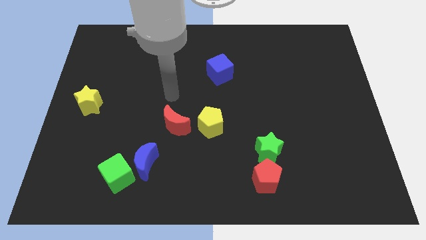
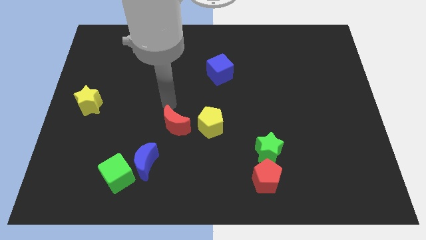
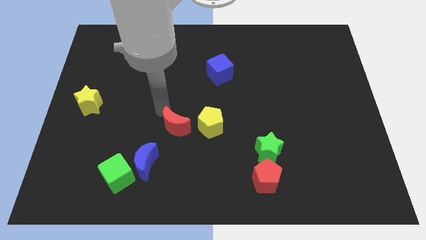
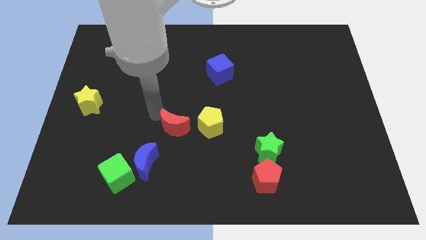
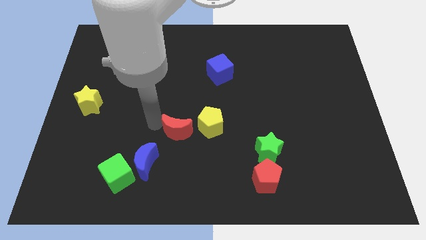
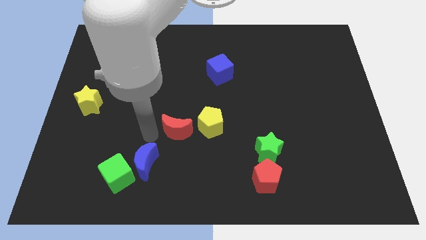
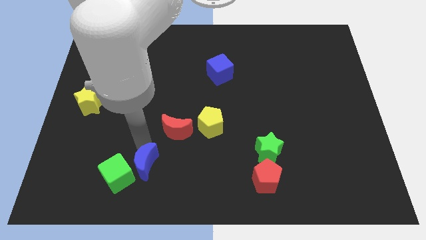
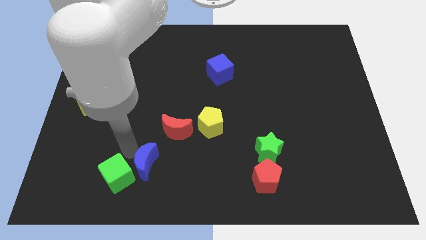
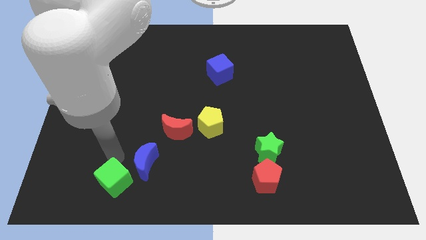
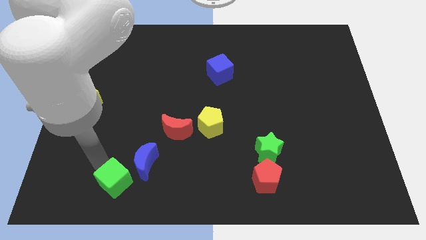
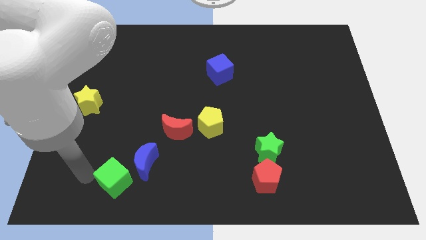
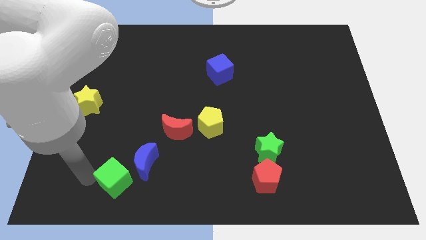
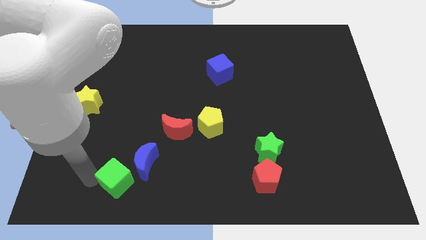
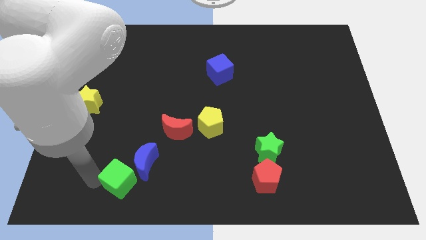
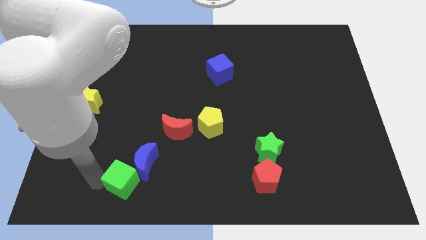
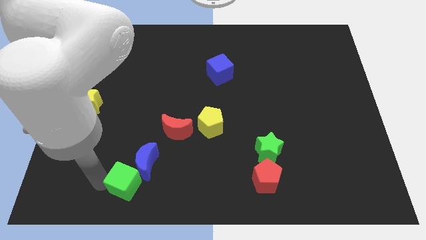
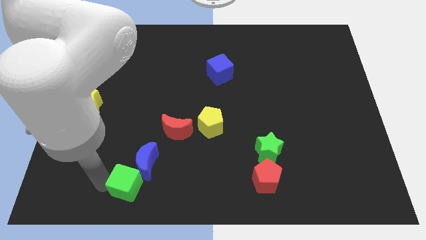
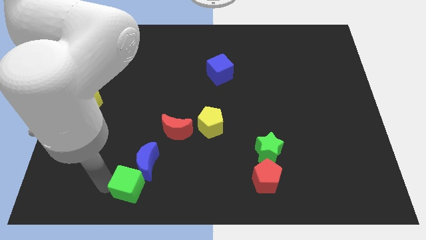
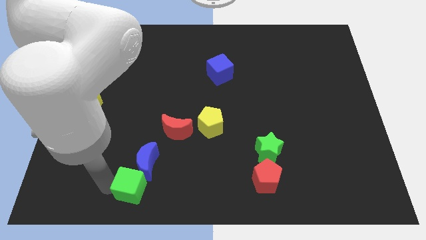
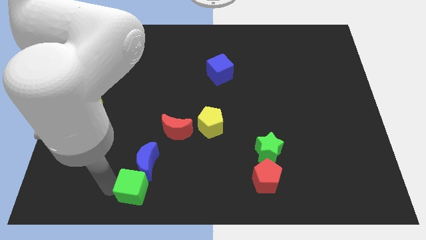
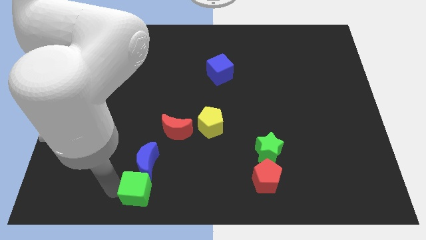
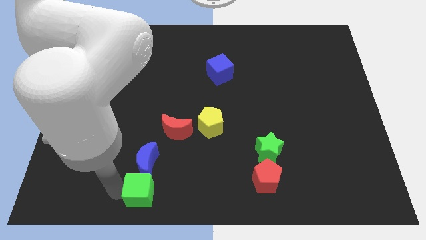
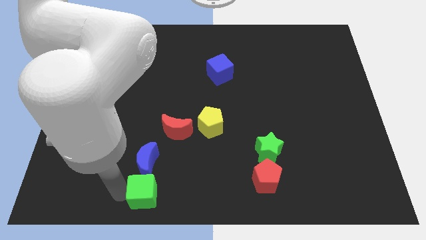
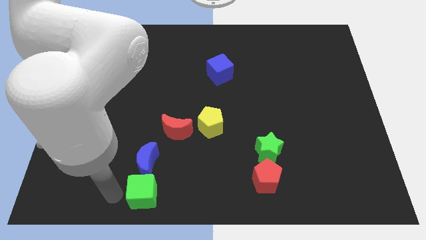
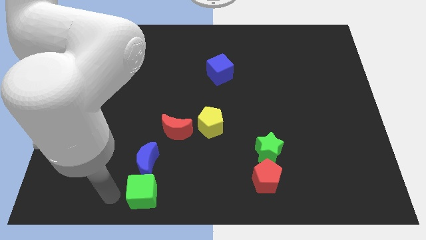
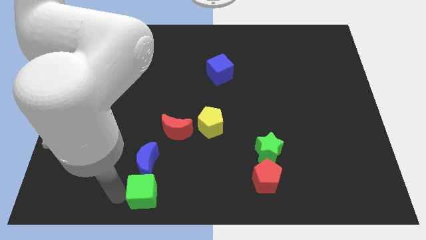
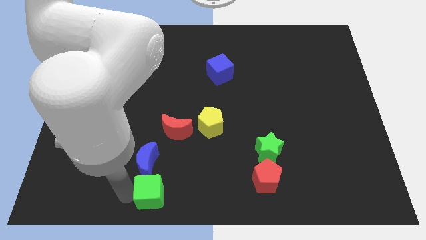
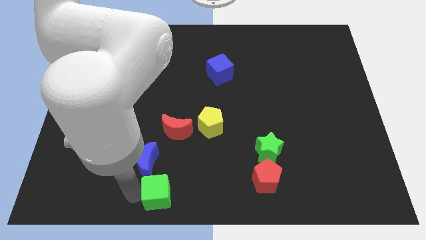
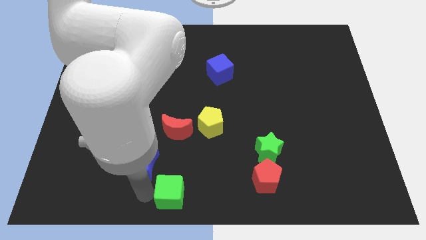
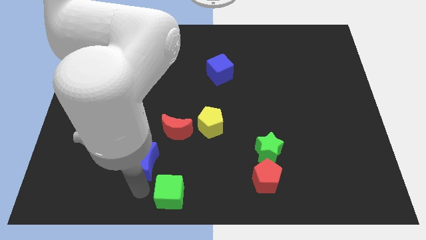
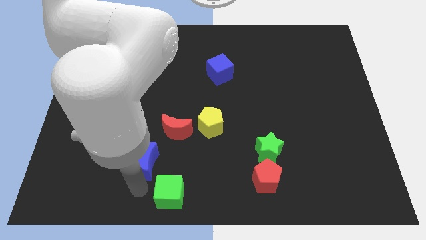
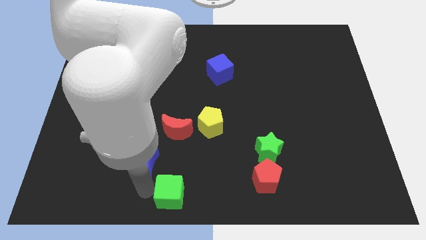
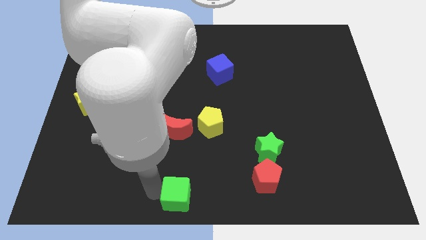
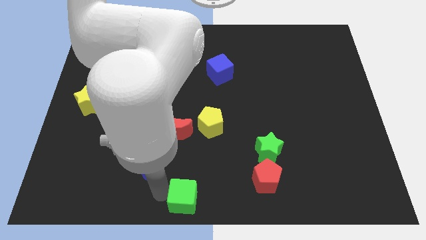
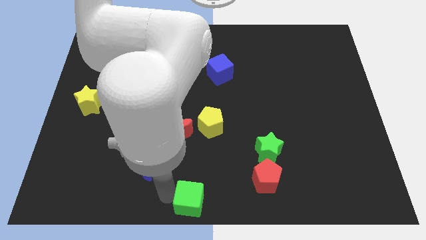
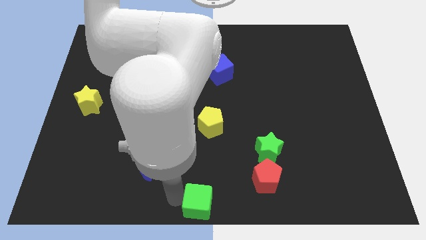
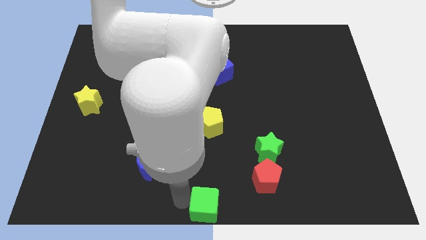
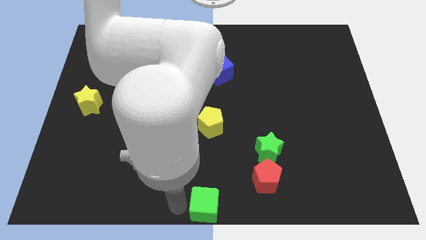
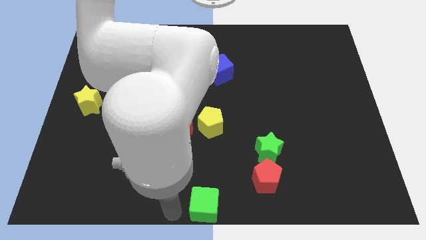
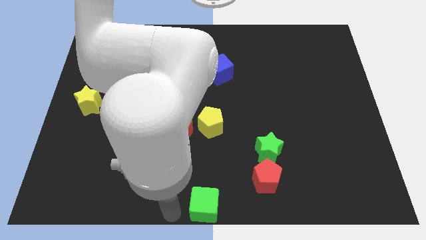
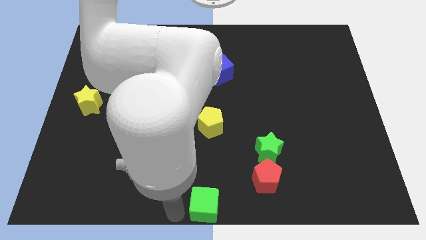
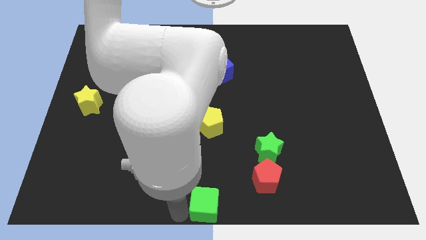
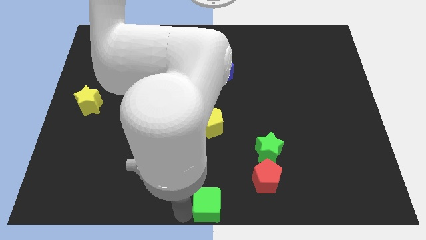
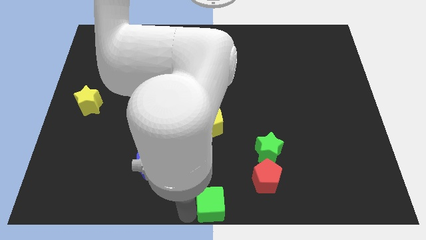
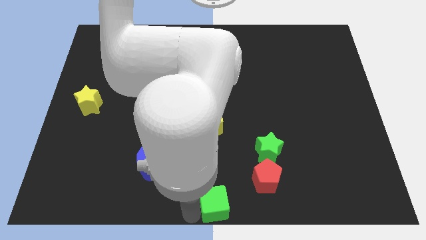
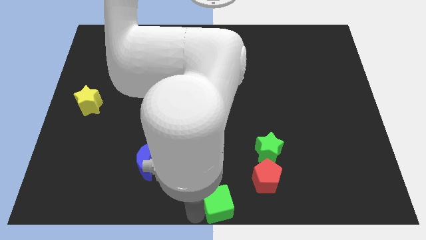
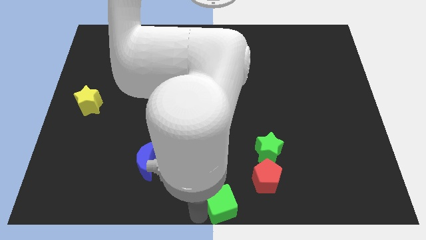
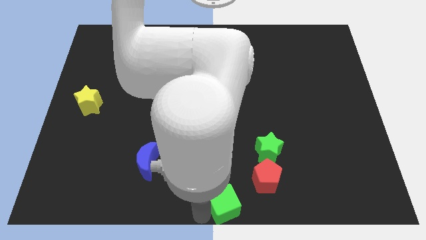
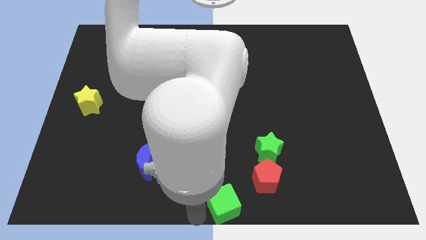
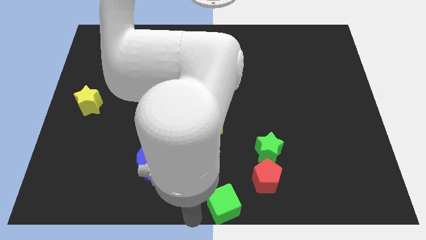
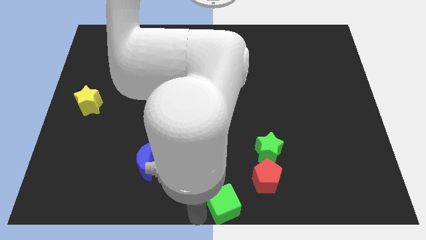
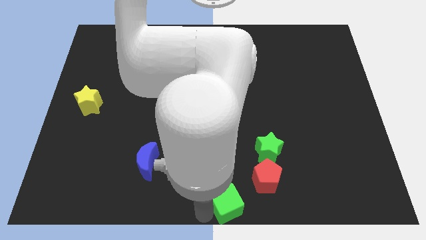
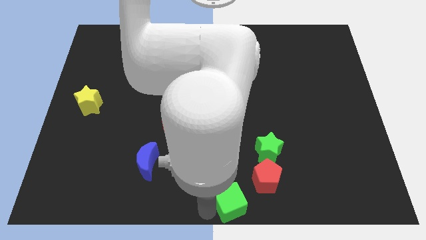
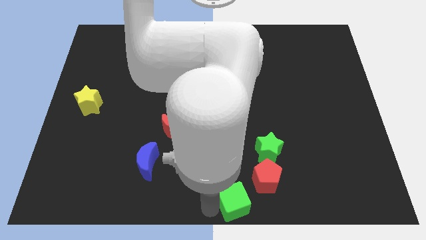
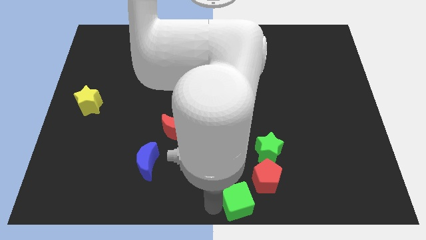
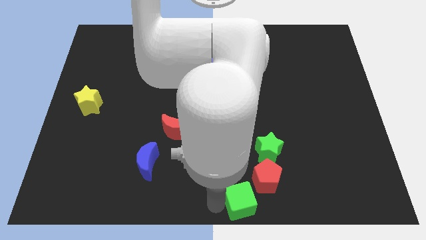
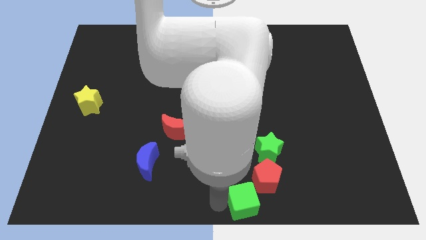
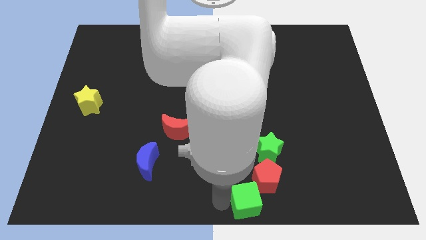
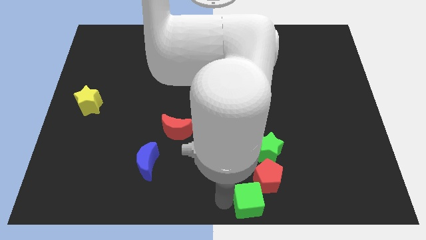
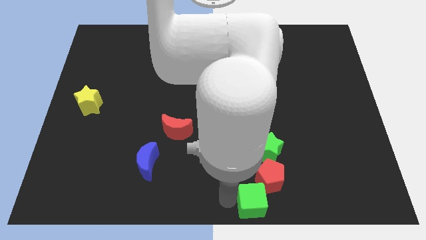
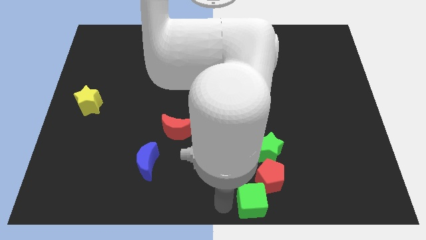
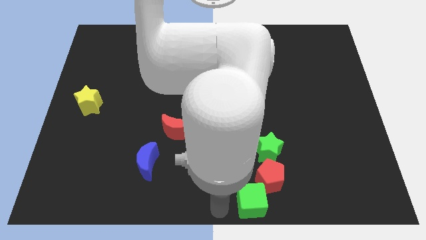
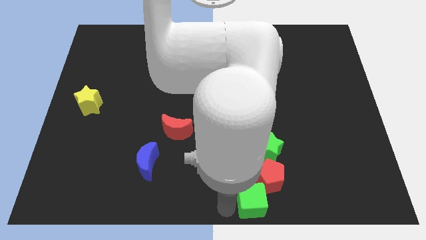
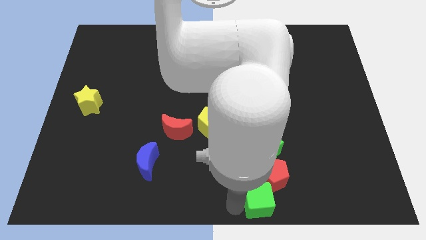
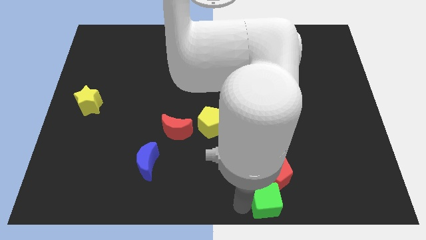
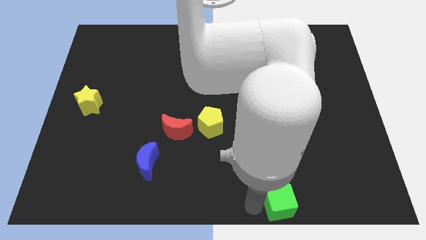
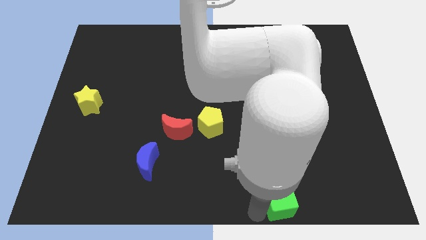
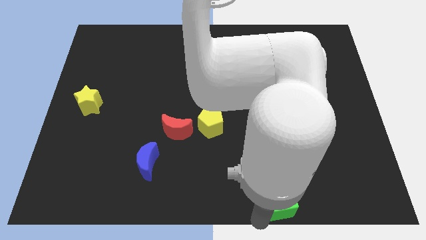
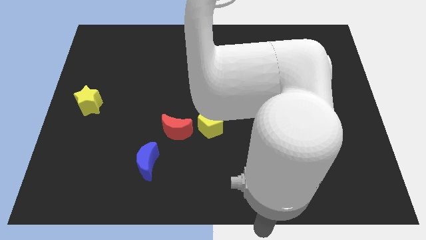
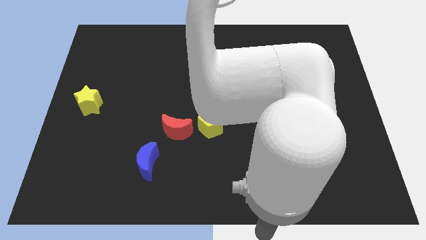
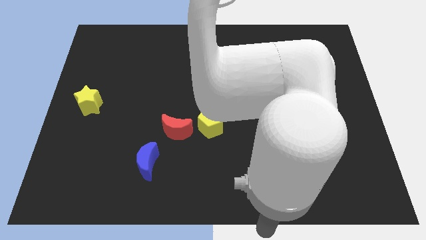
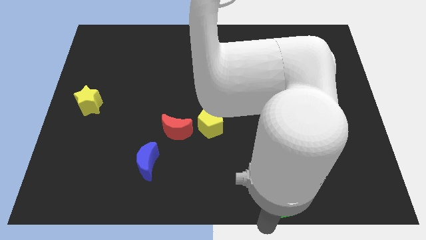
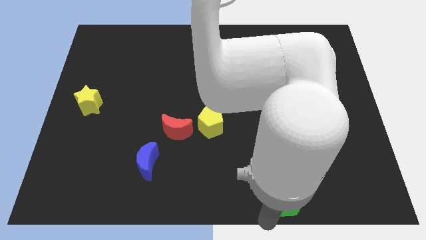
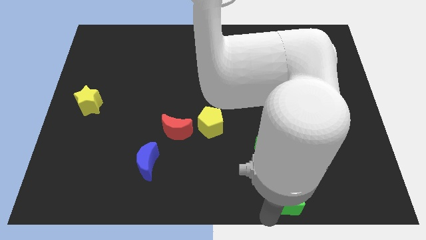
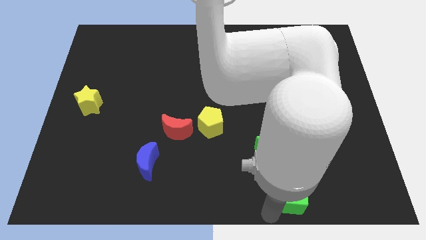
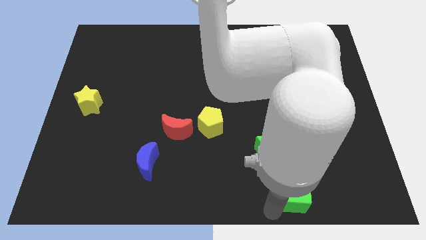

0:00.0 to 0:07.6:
slide the green cube to the bottom right of the green star
